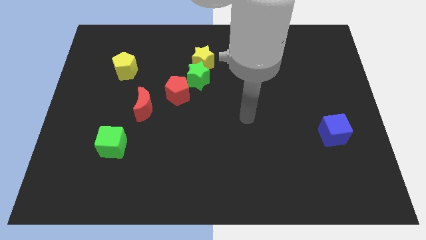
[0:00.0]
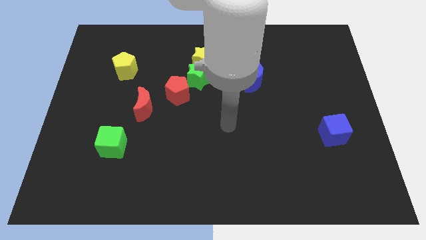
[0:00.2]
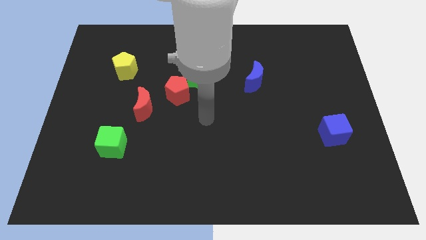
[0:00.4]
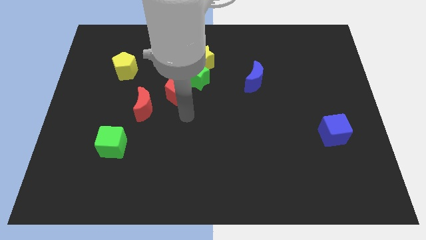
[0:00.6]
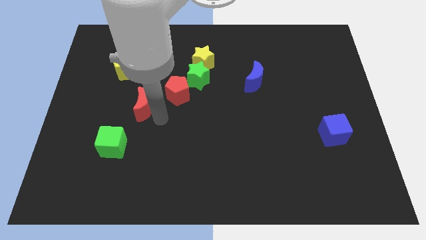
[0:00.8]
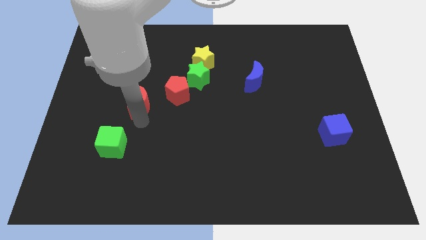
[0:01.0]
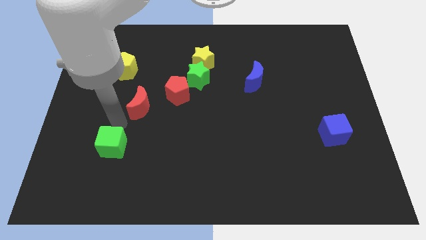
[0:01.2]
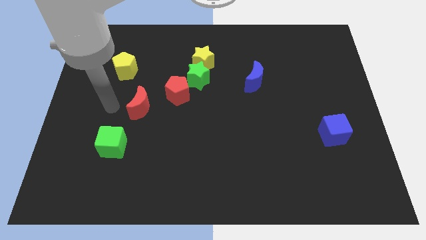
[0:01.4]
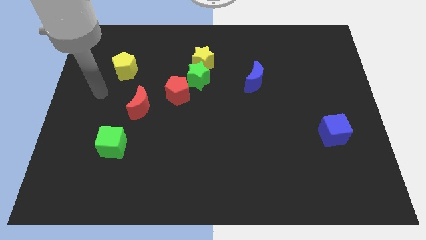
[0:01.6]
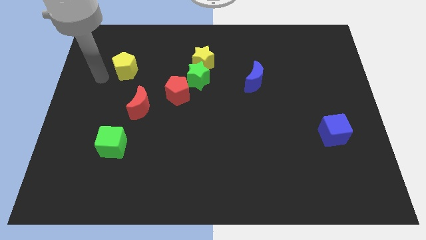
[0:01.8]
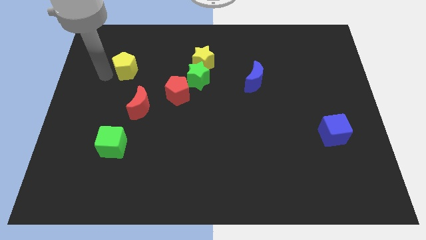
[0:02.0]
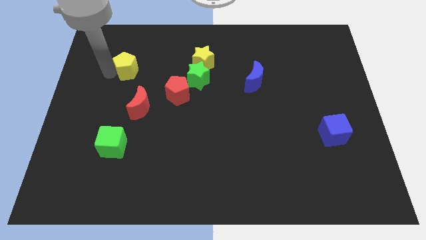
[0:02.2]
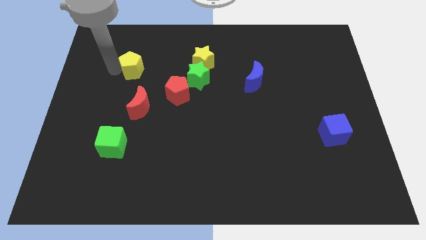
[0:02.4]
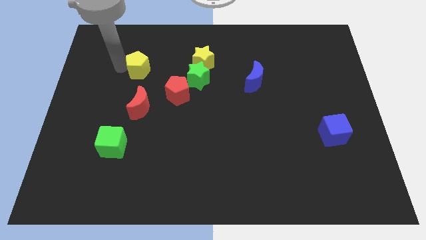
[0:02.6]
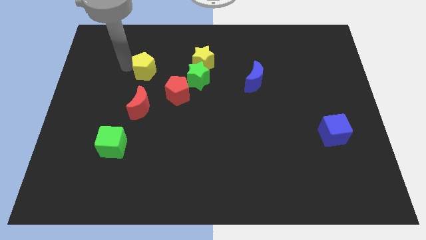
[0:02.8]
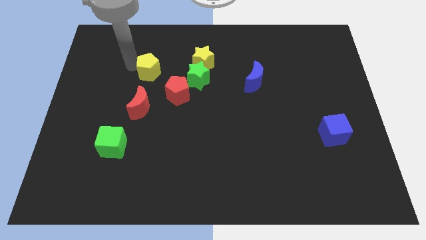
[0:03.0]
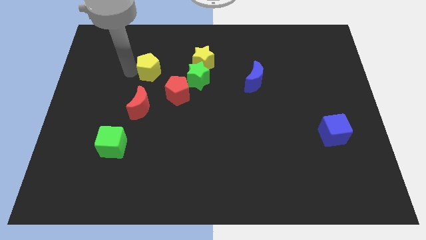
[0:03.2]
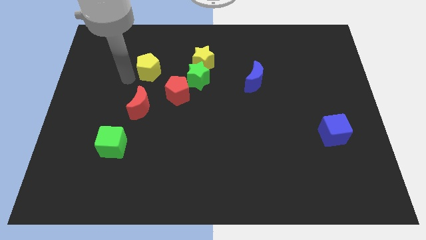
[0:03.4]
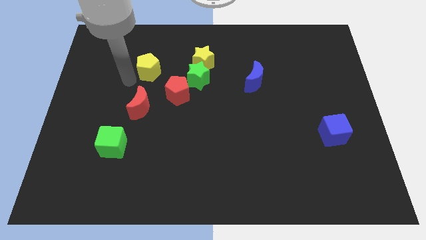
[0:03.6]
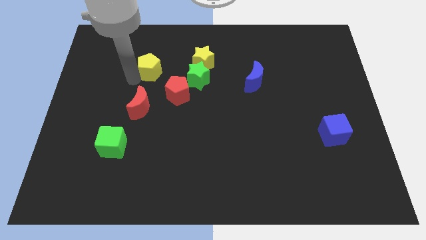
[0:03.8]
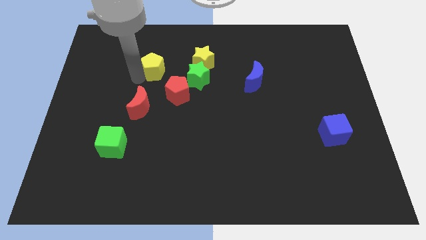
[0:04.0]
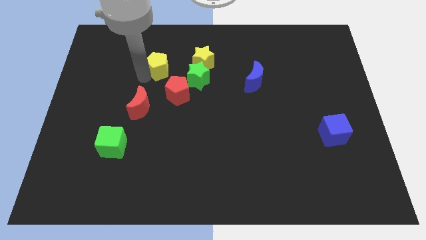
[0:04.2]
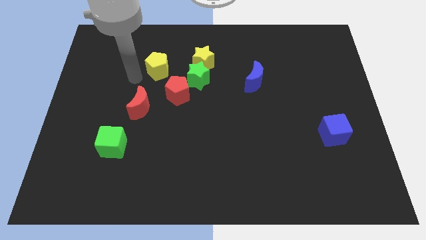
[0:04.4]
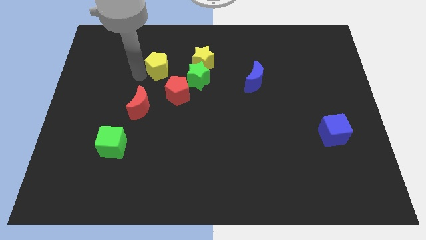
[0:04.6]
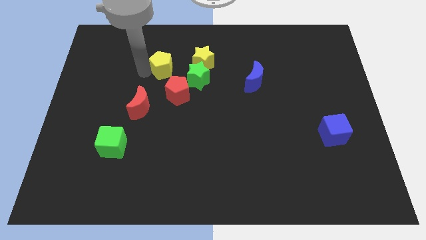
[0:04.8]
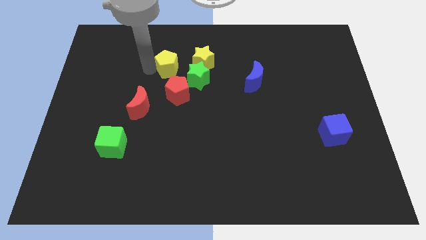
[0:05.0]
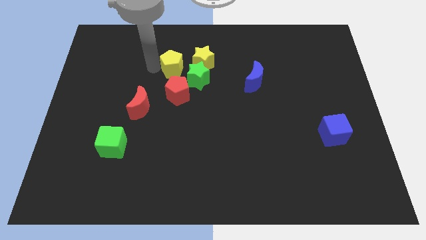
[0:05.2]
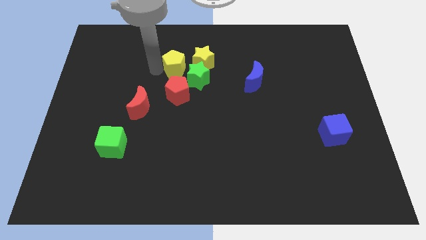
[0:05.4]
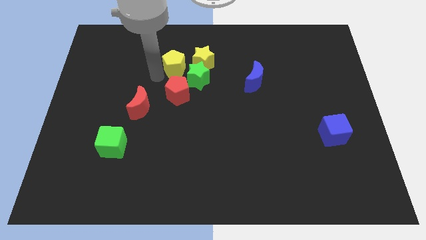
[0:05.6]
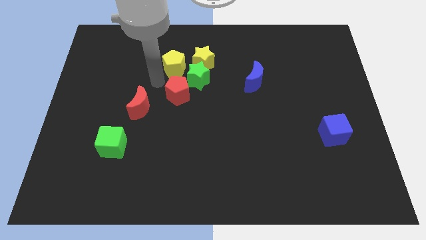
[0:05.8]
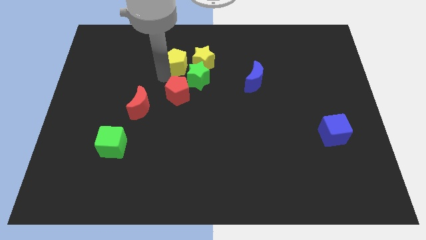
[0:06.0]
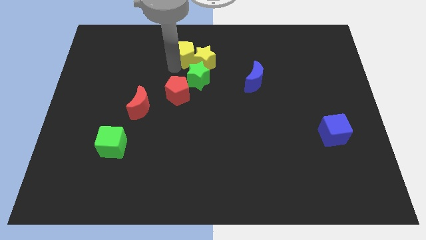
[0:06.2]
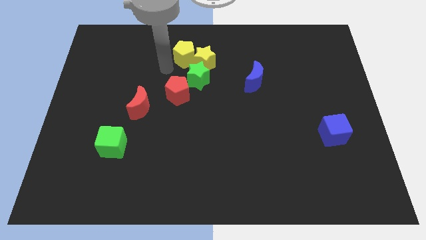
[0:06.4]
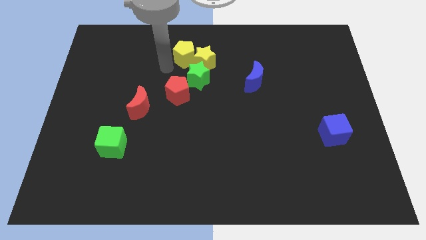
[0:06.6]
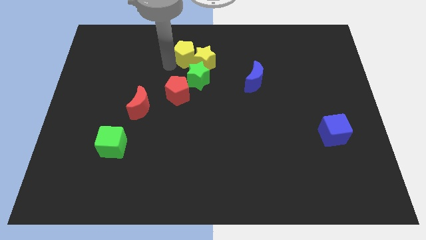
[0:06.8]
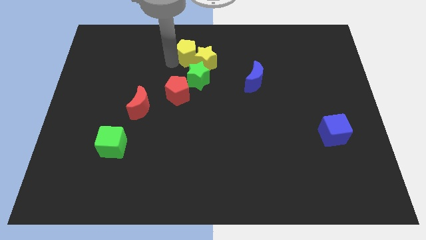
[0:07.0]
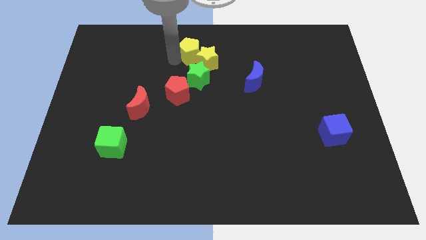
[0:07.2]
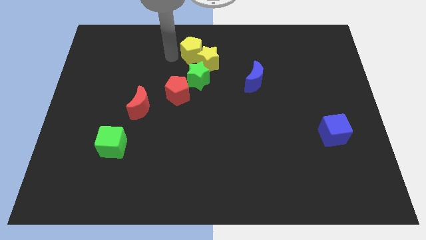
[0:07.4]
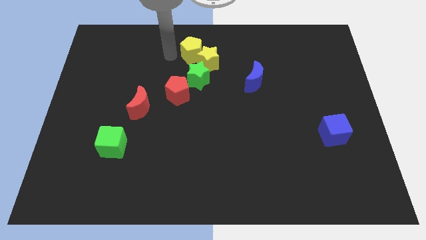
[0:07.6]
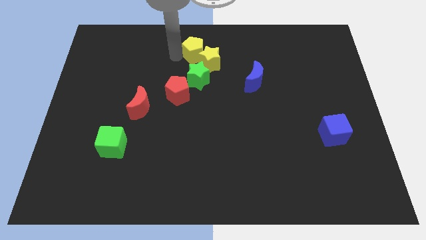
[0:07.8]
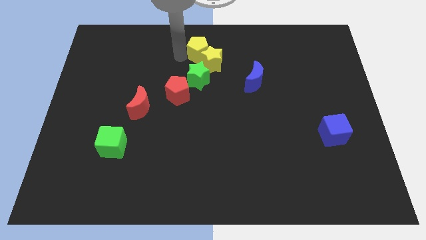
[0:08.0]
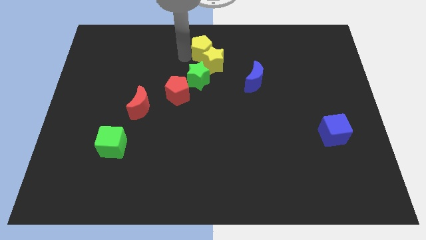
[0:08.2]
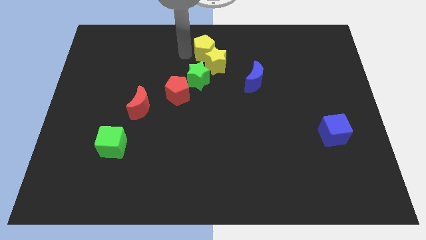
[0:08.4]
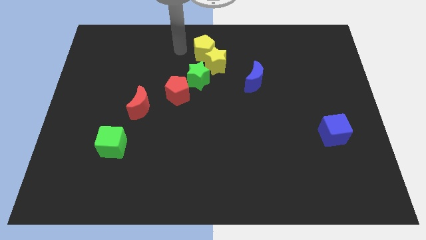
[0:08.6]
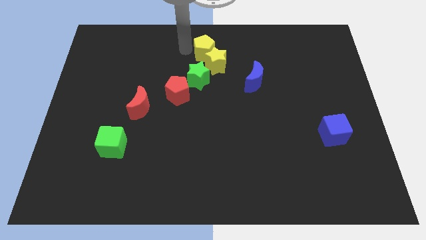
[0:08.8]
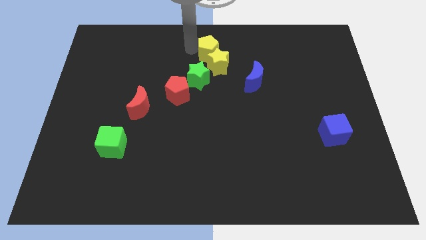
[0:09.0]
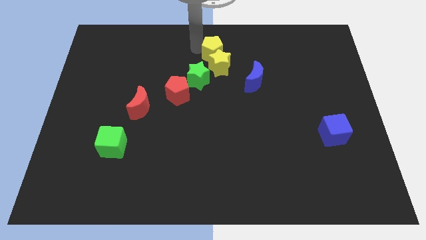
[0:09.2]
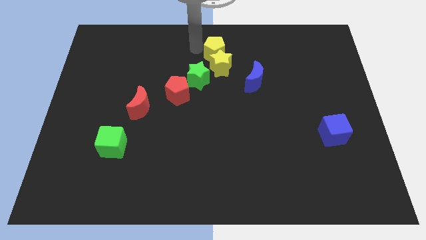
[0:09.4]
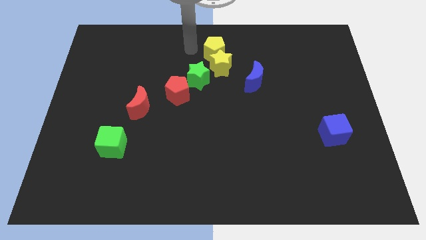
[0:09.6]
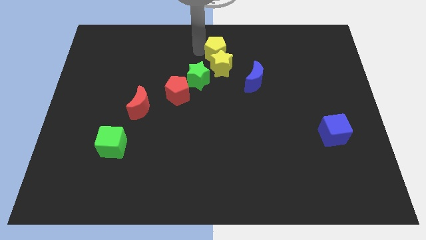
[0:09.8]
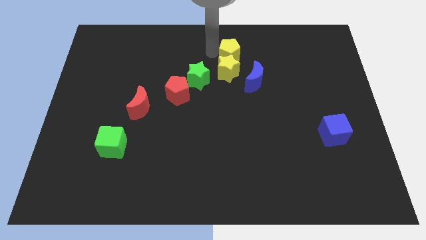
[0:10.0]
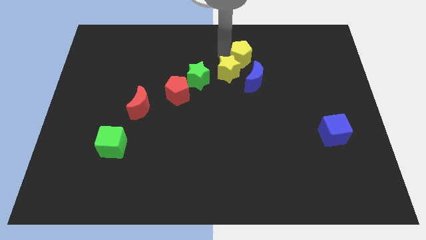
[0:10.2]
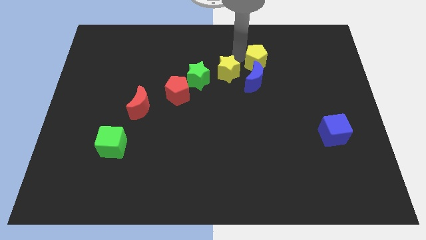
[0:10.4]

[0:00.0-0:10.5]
push the yellow pentagon diagonally up and to the right of the blue moon

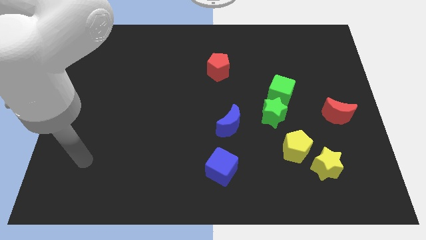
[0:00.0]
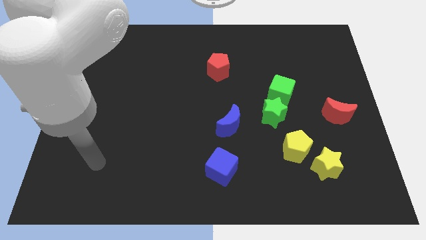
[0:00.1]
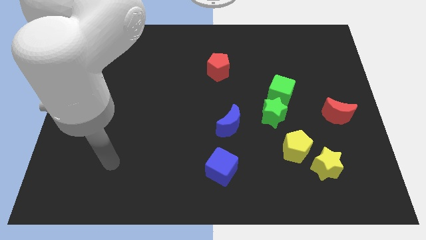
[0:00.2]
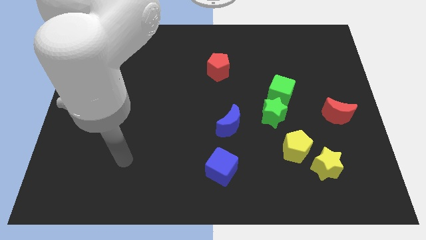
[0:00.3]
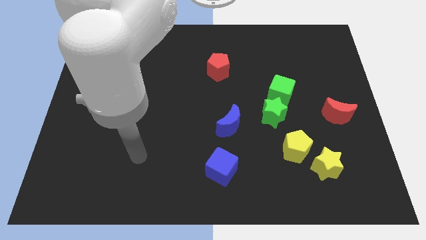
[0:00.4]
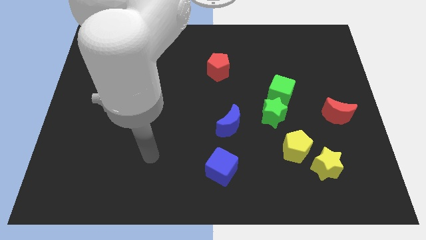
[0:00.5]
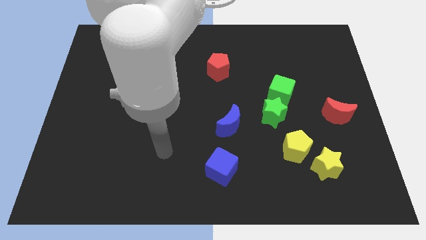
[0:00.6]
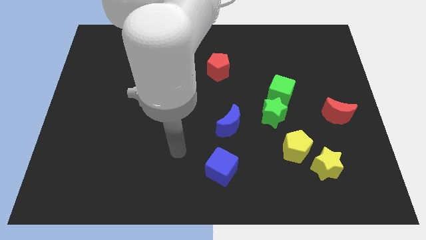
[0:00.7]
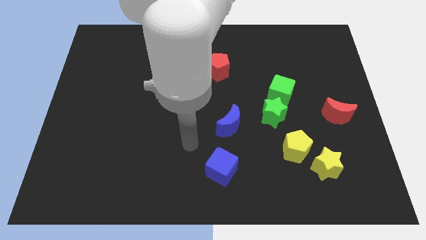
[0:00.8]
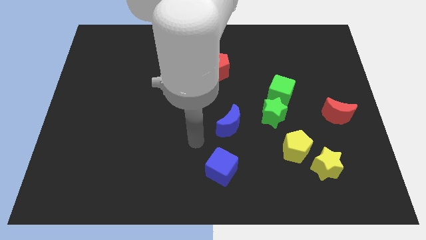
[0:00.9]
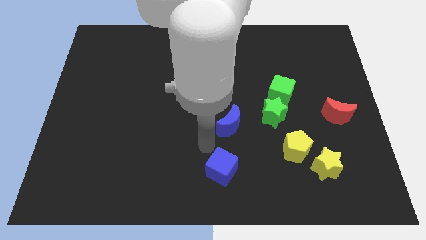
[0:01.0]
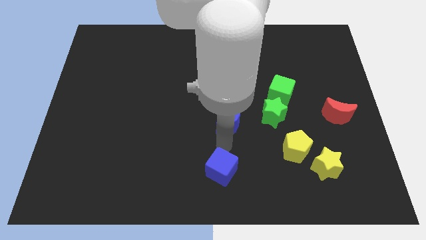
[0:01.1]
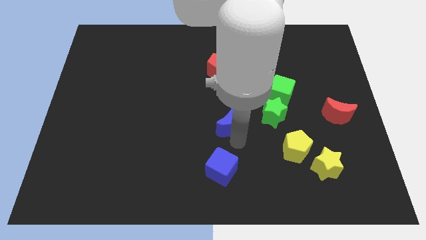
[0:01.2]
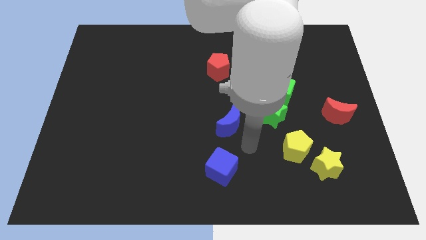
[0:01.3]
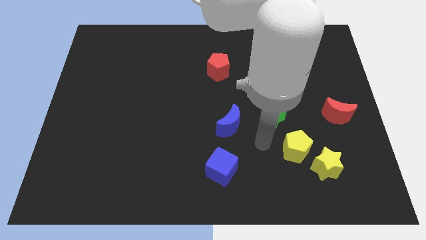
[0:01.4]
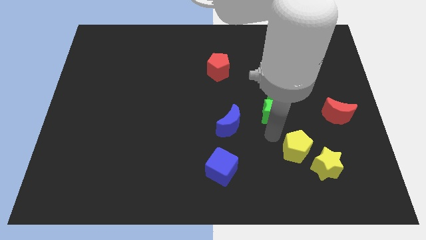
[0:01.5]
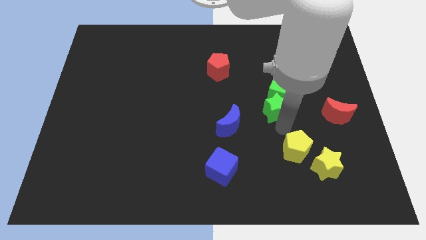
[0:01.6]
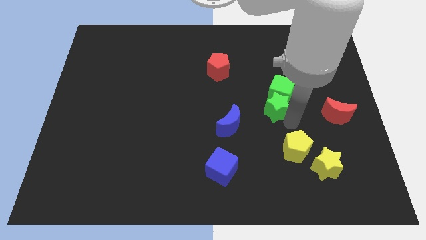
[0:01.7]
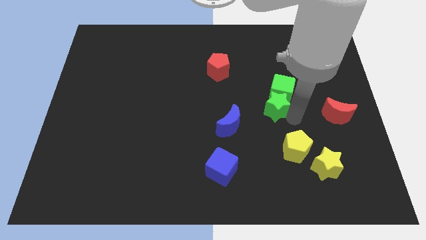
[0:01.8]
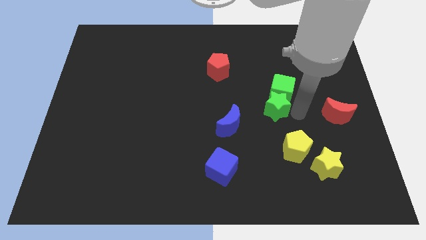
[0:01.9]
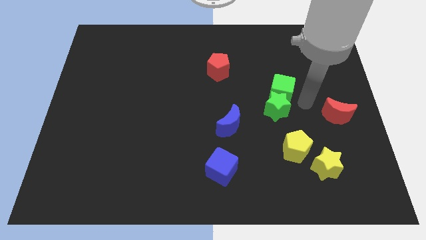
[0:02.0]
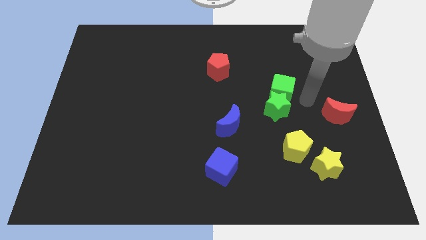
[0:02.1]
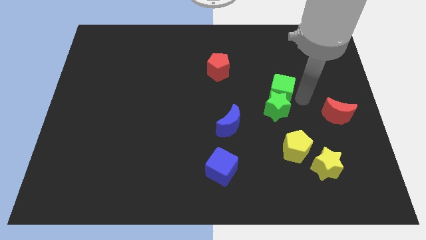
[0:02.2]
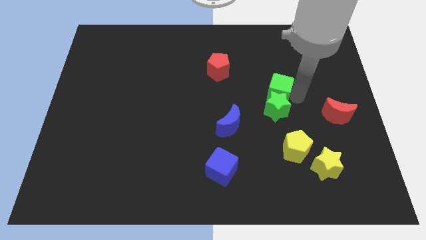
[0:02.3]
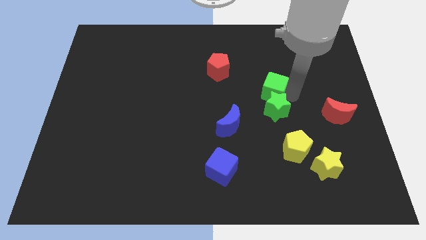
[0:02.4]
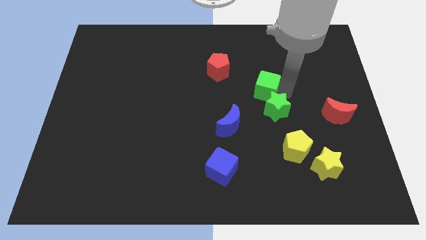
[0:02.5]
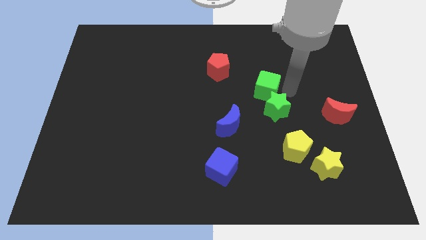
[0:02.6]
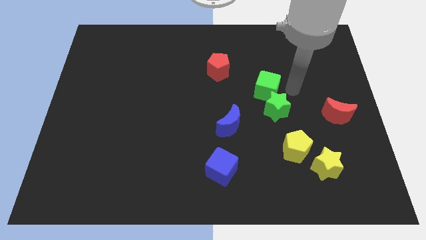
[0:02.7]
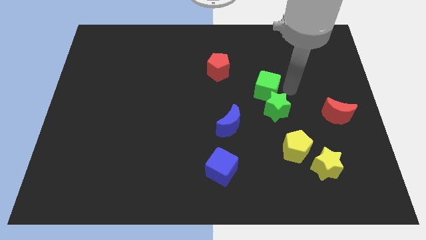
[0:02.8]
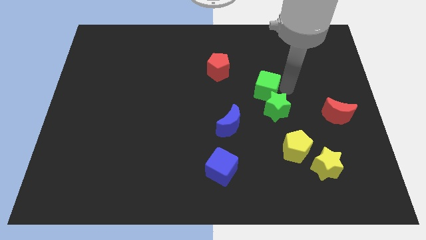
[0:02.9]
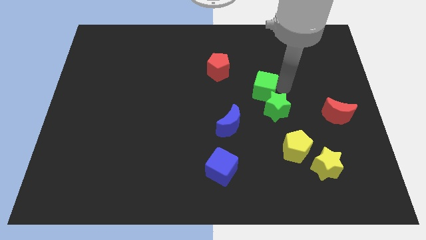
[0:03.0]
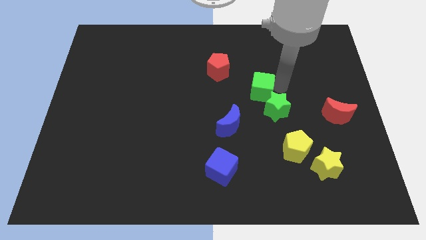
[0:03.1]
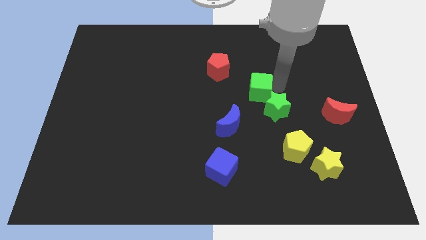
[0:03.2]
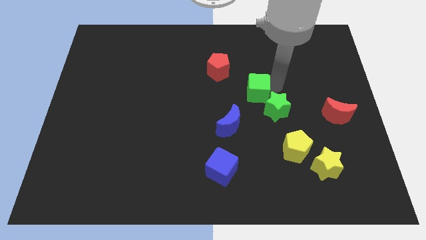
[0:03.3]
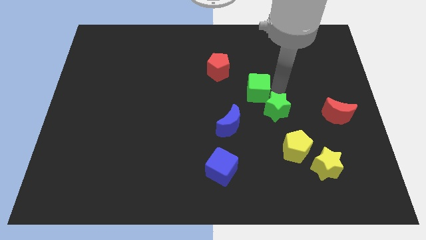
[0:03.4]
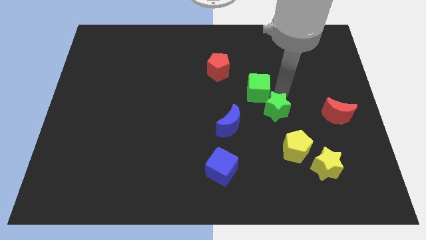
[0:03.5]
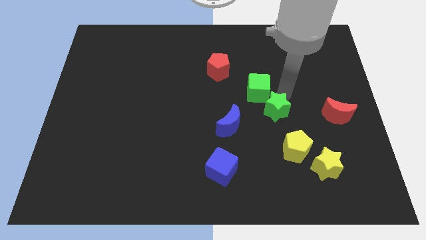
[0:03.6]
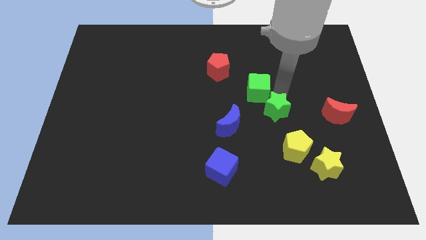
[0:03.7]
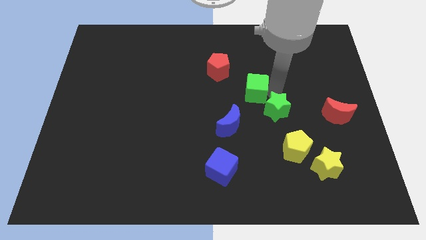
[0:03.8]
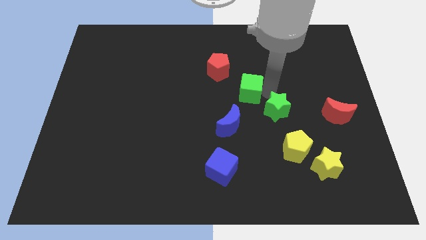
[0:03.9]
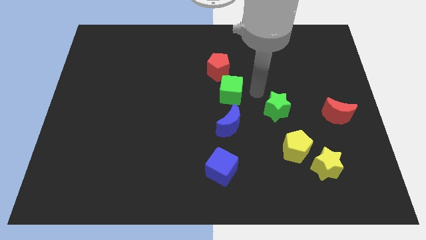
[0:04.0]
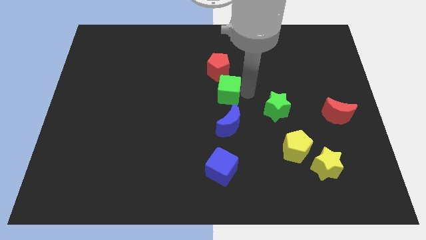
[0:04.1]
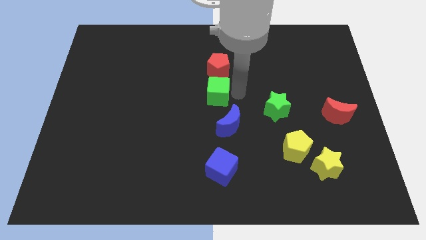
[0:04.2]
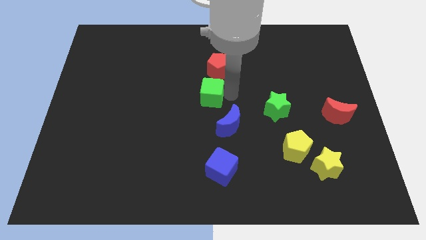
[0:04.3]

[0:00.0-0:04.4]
push the green cube diagonally down and to the left of the red pentagon
